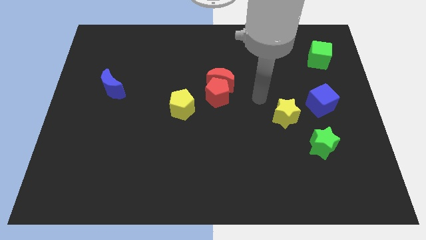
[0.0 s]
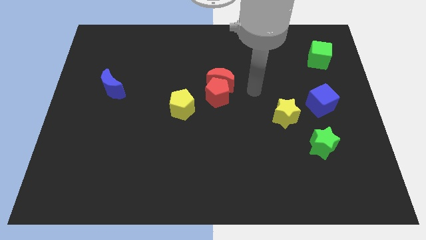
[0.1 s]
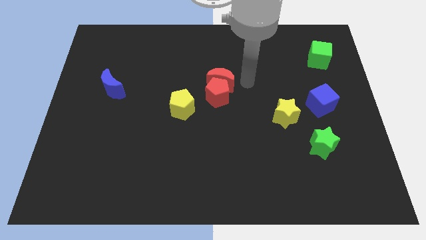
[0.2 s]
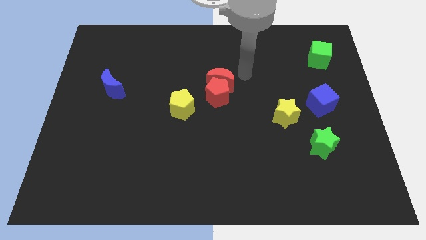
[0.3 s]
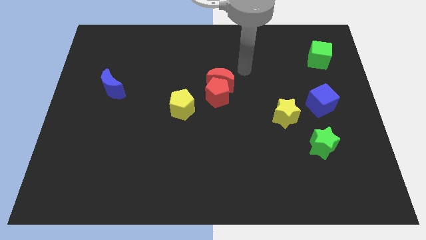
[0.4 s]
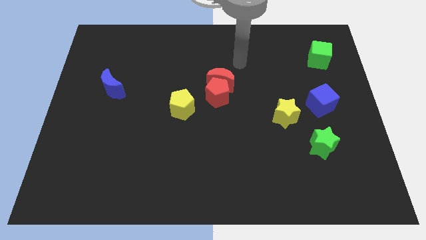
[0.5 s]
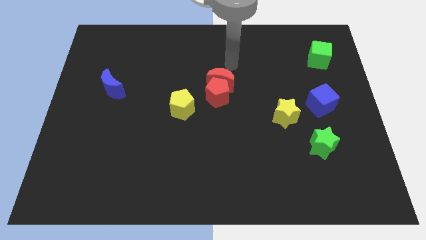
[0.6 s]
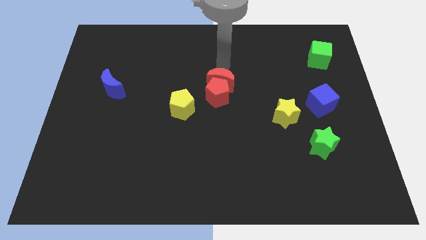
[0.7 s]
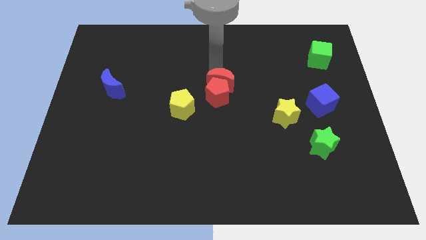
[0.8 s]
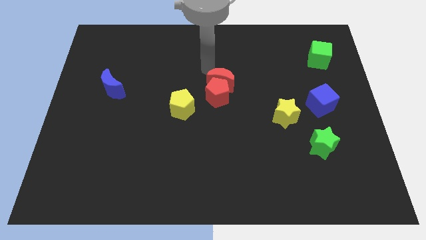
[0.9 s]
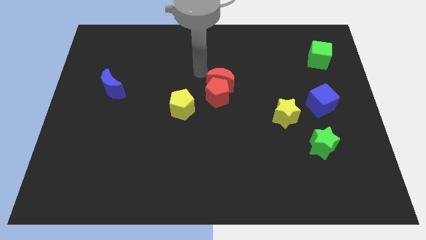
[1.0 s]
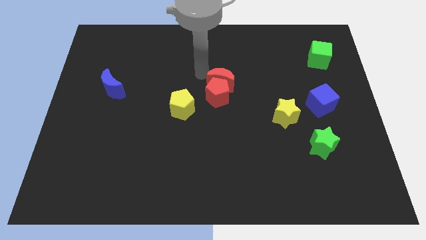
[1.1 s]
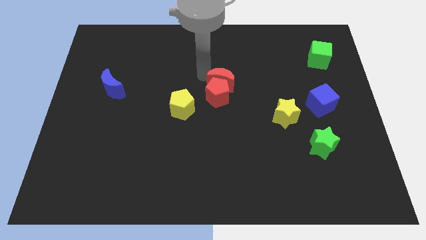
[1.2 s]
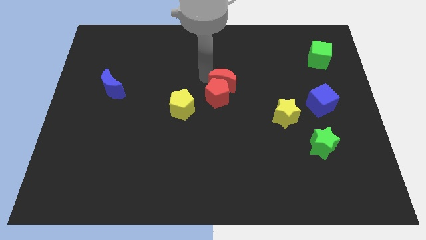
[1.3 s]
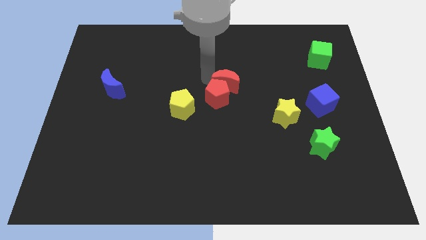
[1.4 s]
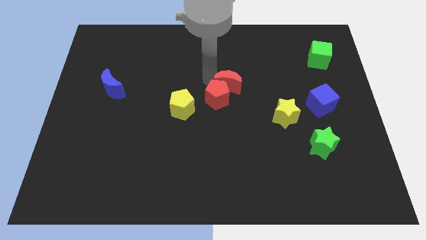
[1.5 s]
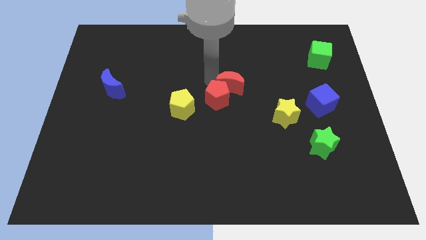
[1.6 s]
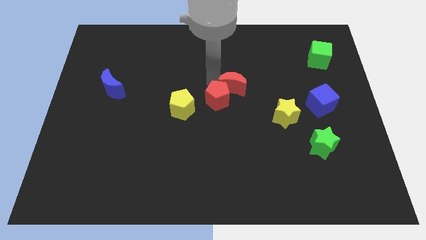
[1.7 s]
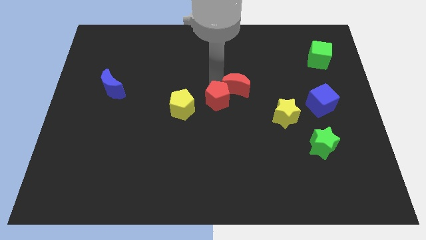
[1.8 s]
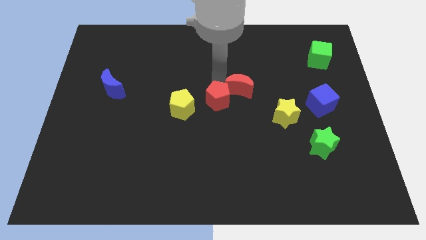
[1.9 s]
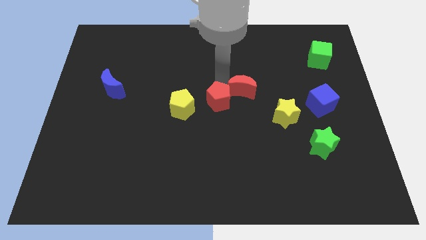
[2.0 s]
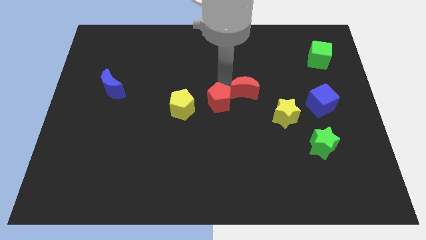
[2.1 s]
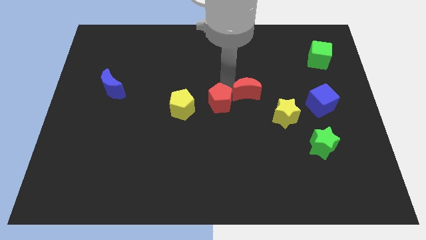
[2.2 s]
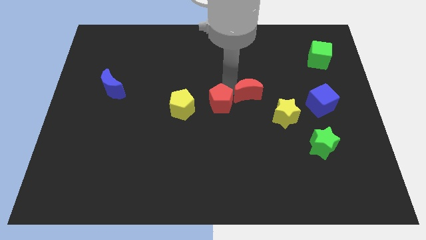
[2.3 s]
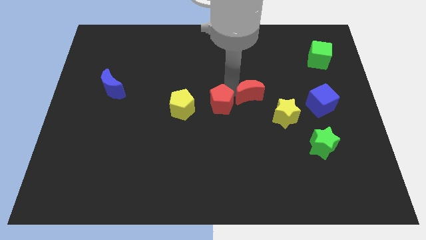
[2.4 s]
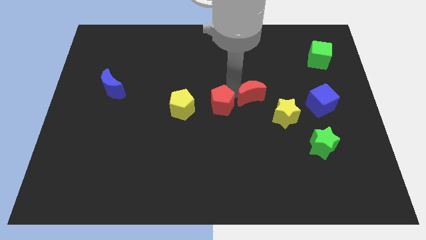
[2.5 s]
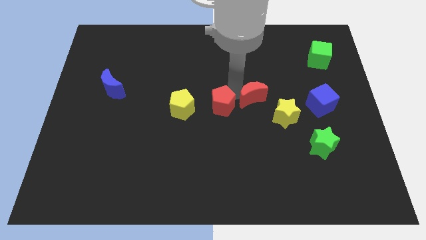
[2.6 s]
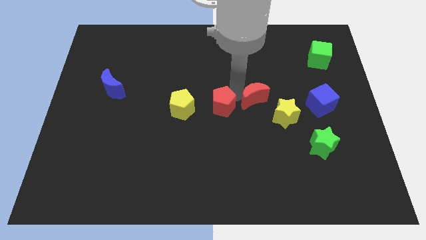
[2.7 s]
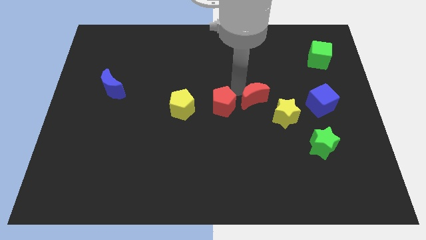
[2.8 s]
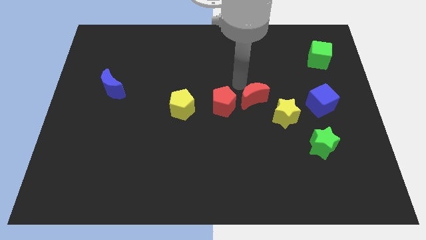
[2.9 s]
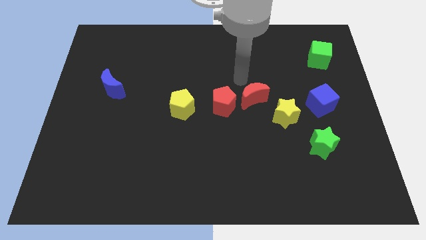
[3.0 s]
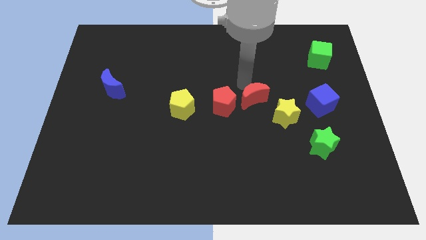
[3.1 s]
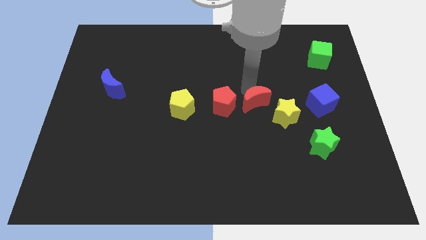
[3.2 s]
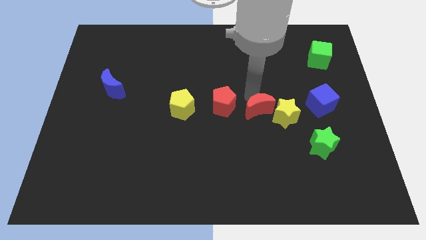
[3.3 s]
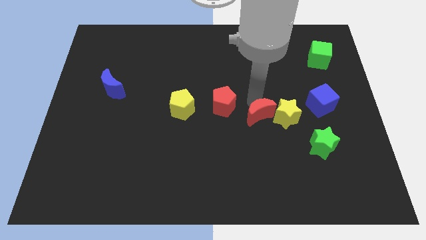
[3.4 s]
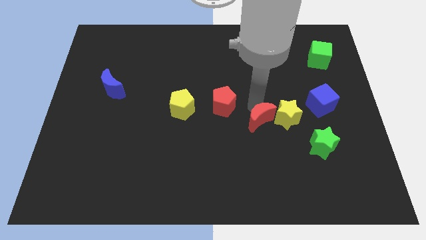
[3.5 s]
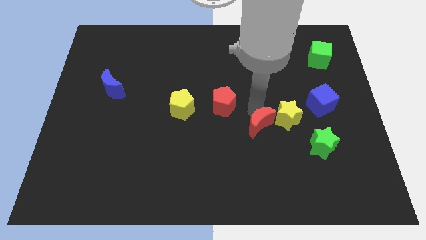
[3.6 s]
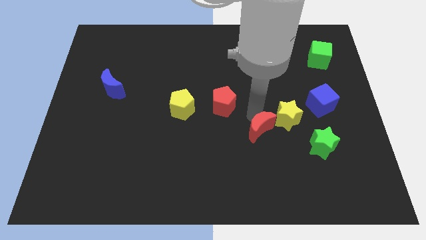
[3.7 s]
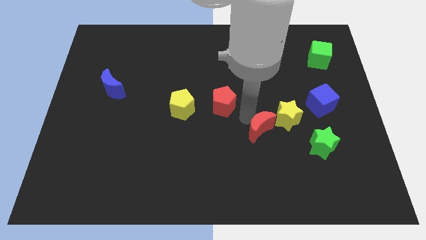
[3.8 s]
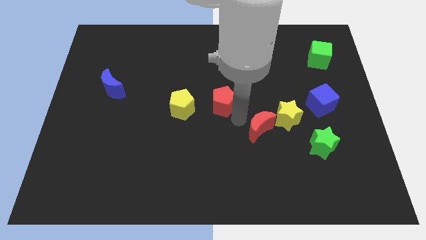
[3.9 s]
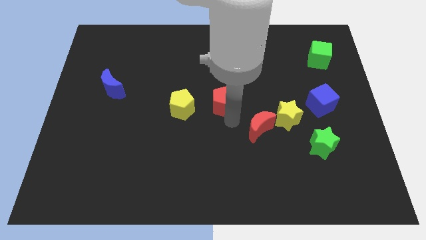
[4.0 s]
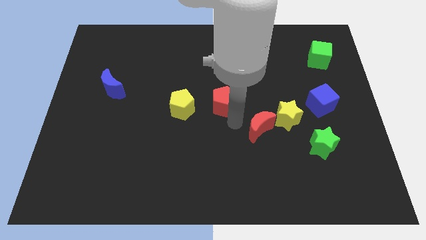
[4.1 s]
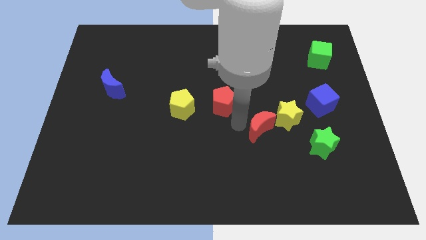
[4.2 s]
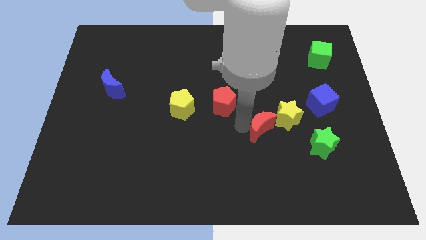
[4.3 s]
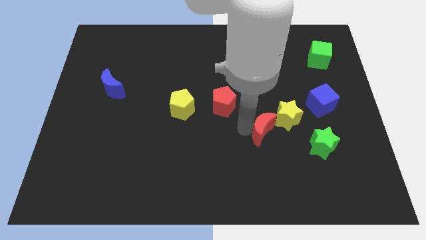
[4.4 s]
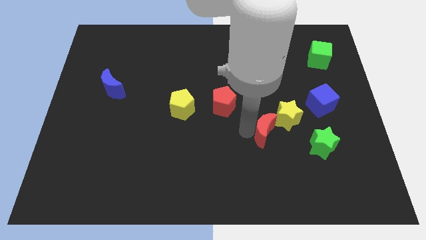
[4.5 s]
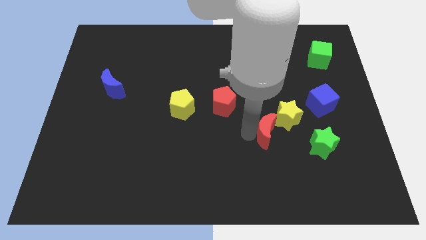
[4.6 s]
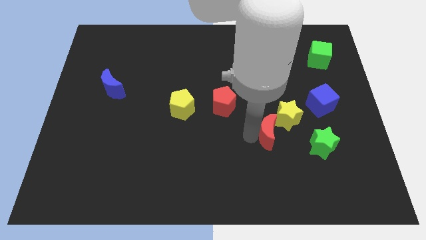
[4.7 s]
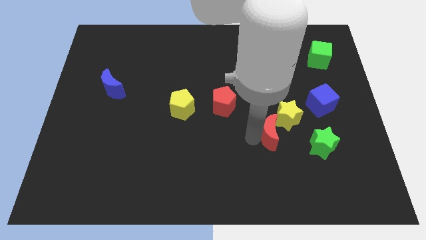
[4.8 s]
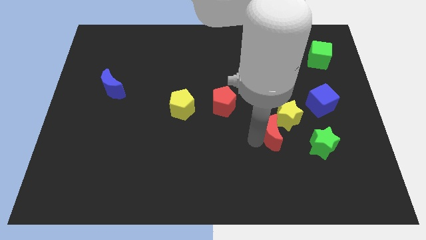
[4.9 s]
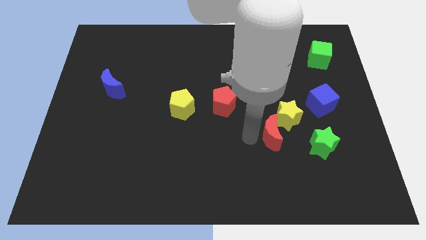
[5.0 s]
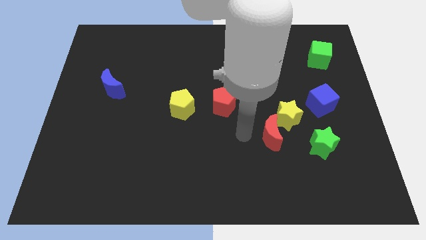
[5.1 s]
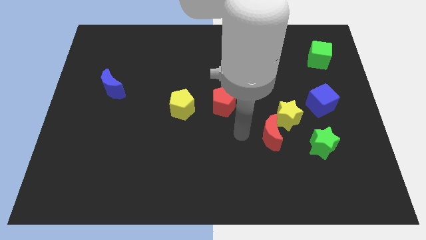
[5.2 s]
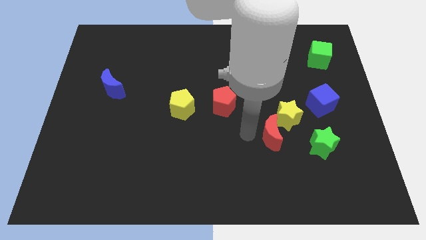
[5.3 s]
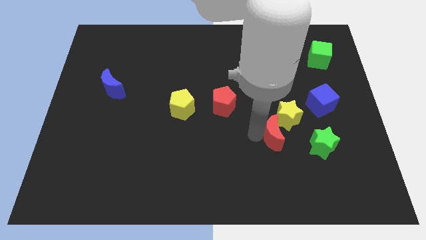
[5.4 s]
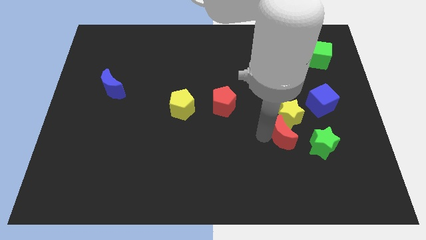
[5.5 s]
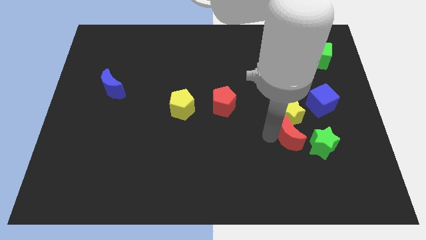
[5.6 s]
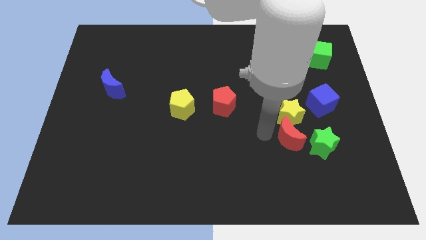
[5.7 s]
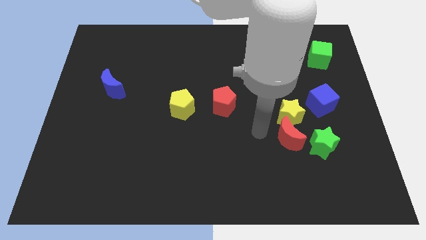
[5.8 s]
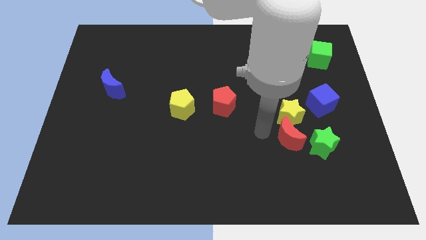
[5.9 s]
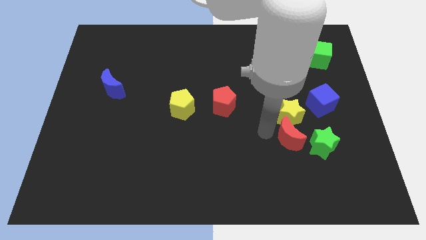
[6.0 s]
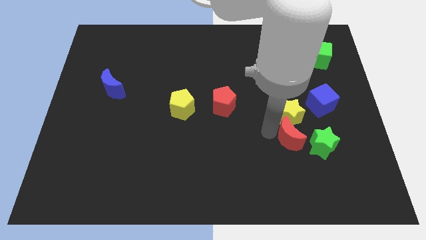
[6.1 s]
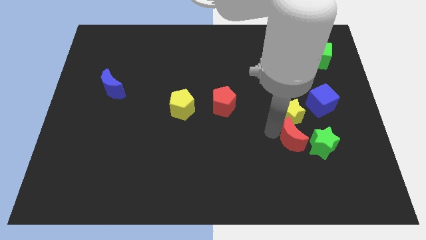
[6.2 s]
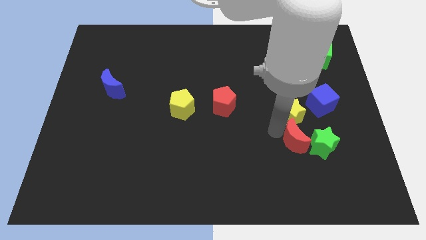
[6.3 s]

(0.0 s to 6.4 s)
move the red moon close to the green star

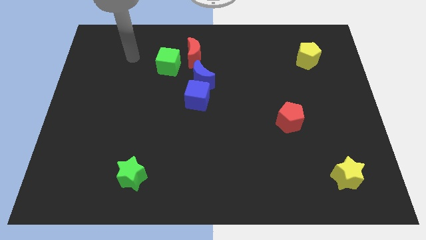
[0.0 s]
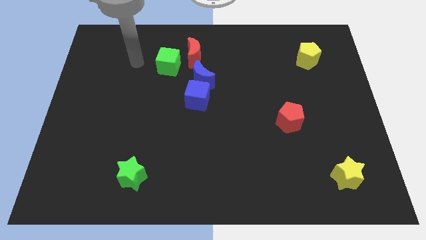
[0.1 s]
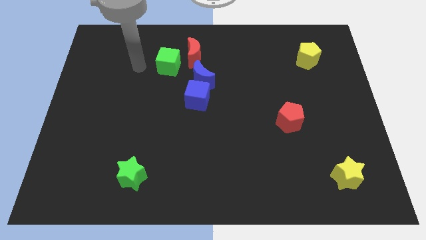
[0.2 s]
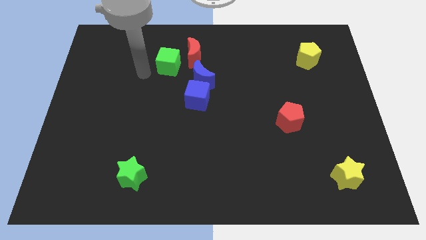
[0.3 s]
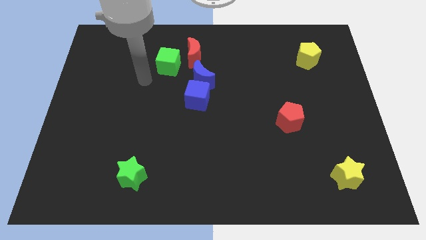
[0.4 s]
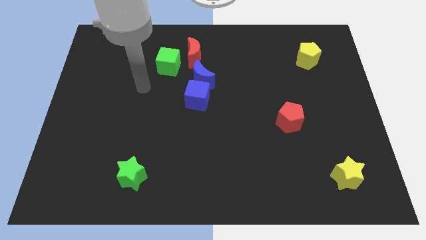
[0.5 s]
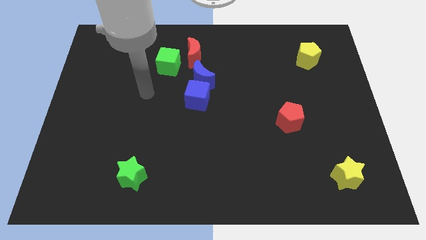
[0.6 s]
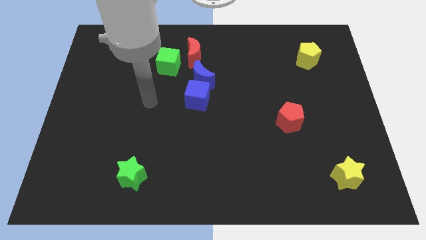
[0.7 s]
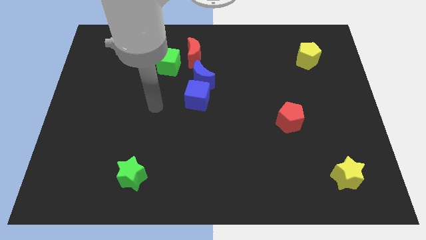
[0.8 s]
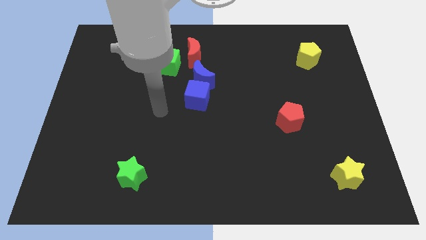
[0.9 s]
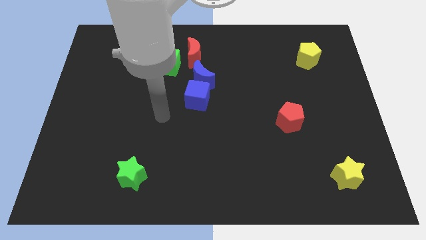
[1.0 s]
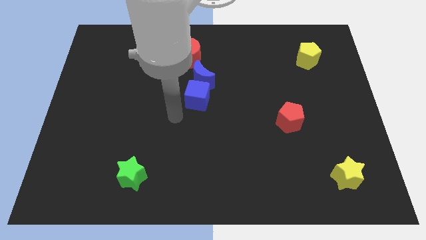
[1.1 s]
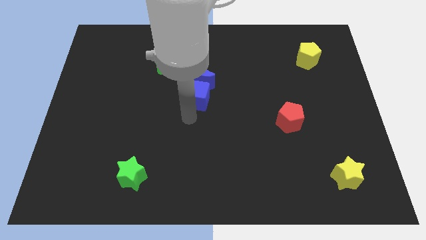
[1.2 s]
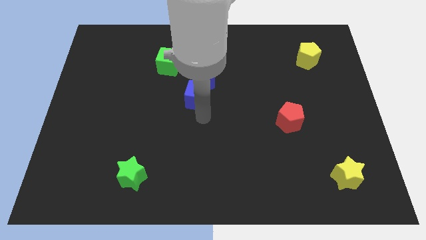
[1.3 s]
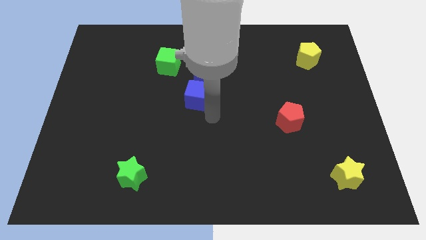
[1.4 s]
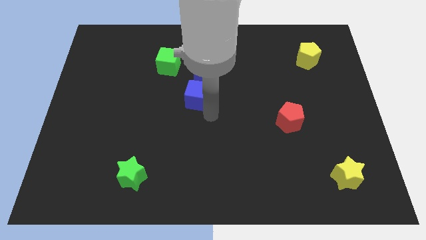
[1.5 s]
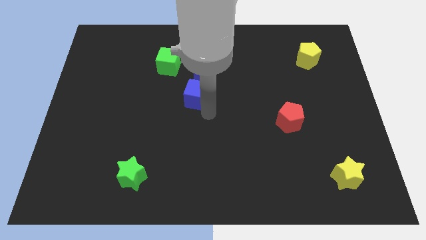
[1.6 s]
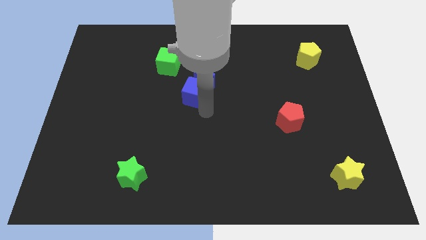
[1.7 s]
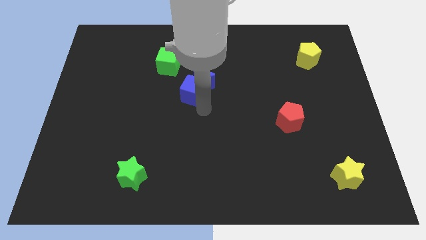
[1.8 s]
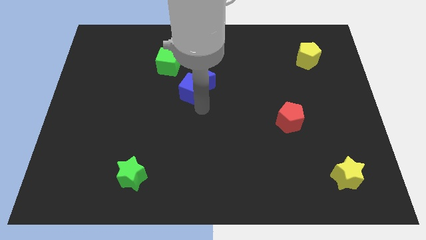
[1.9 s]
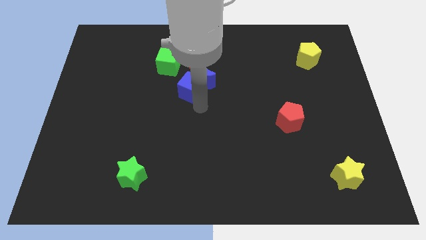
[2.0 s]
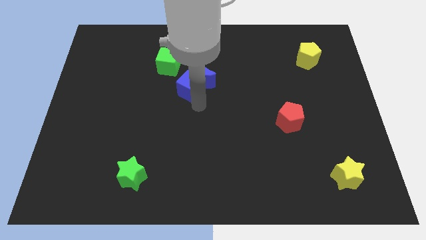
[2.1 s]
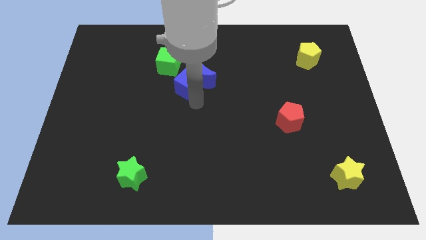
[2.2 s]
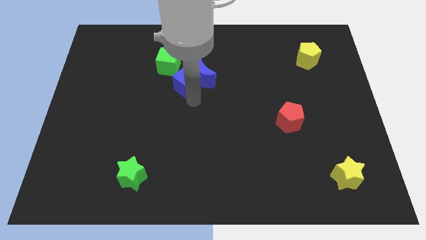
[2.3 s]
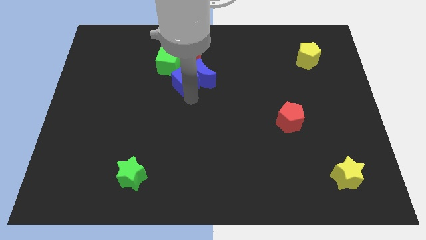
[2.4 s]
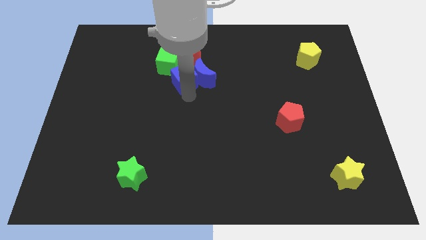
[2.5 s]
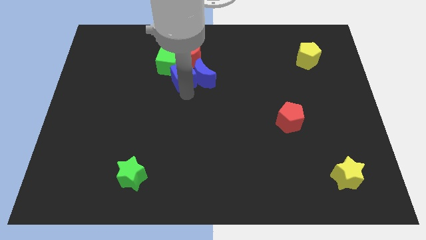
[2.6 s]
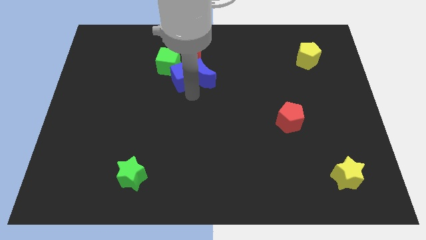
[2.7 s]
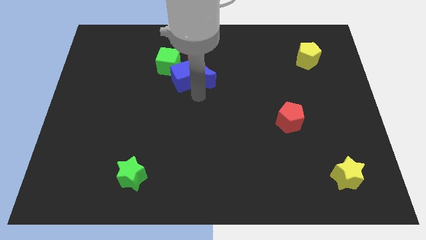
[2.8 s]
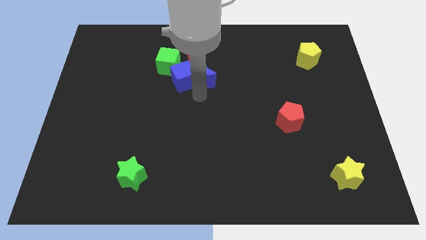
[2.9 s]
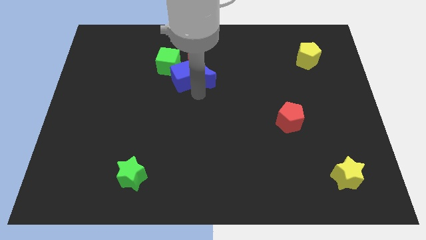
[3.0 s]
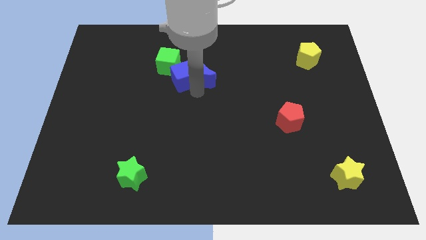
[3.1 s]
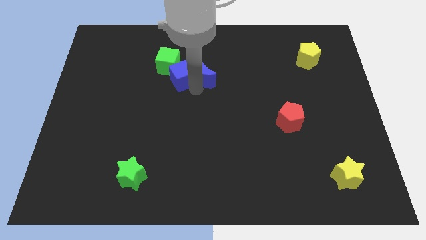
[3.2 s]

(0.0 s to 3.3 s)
move the blue cube to the green cube
